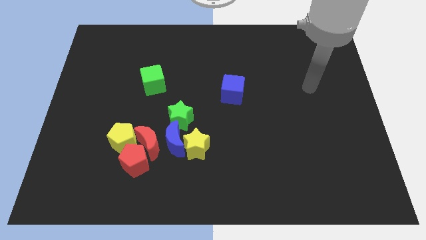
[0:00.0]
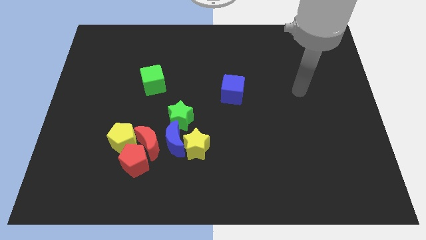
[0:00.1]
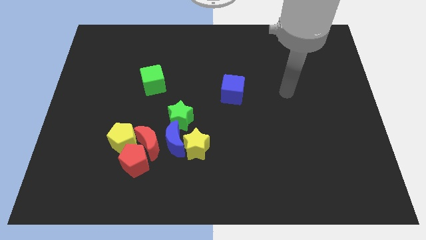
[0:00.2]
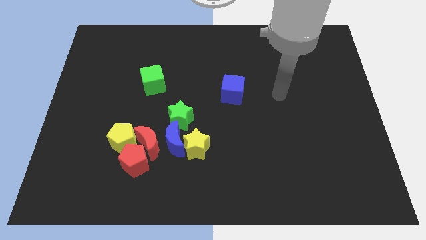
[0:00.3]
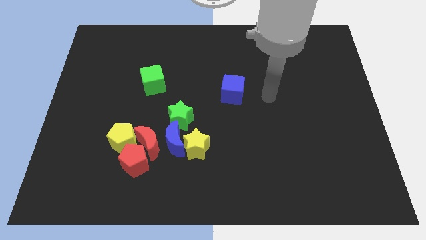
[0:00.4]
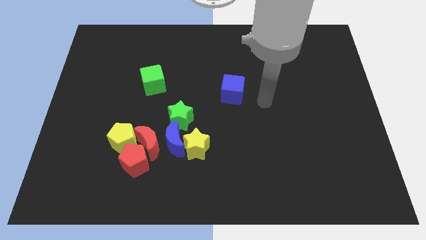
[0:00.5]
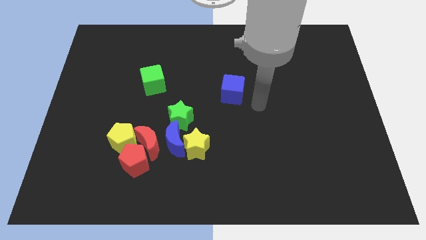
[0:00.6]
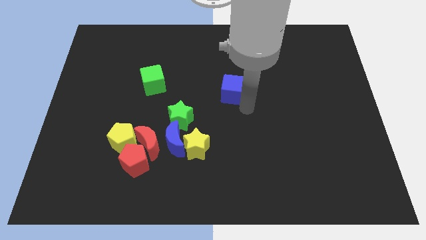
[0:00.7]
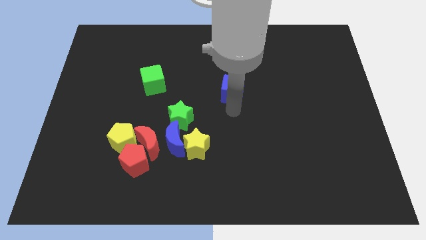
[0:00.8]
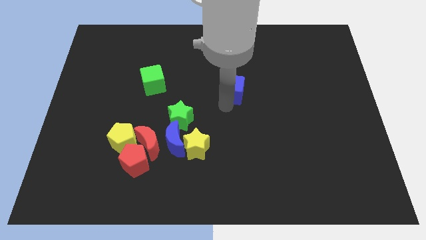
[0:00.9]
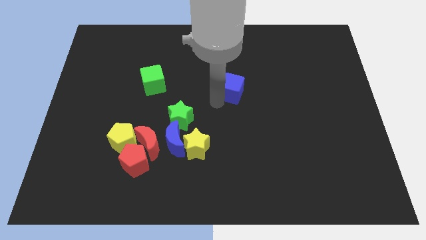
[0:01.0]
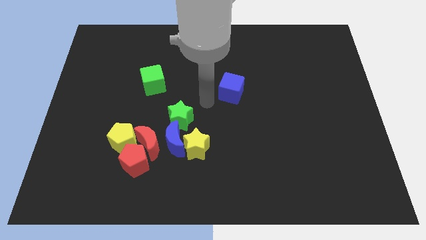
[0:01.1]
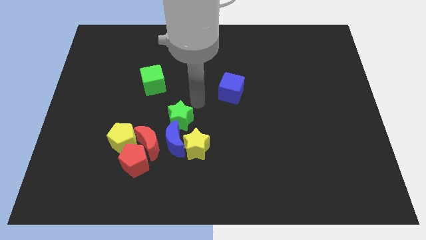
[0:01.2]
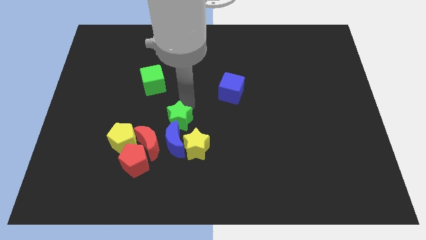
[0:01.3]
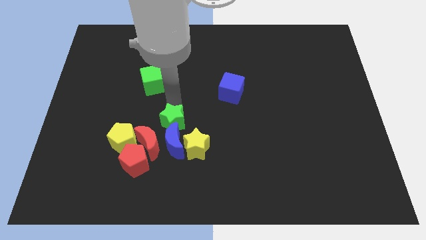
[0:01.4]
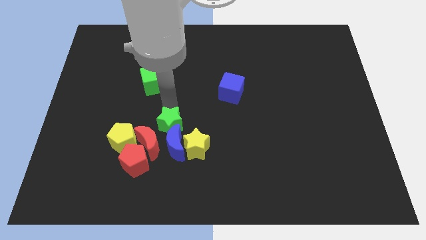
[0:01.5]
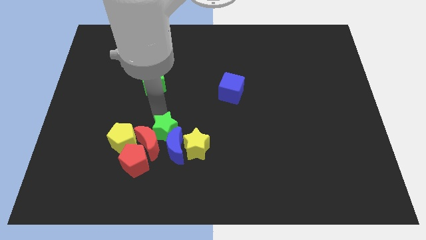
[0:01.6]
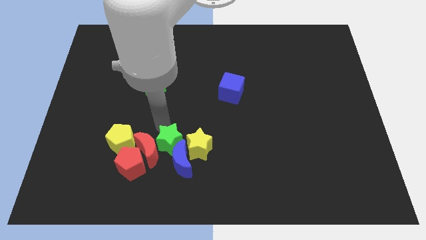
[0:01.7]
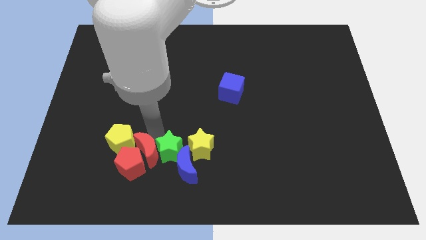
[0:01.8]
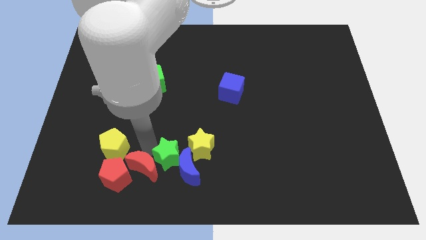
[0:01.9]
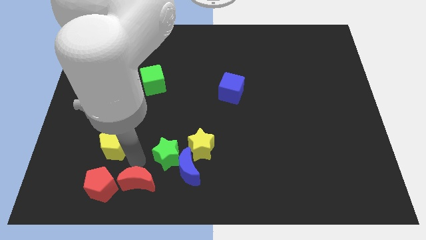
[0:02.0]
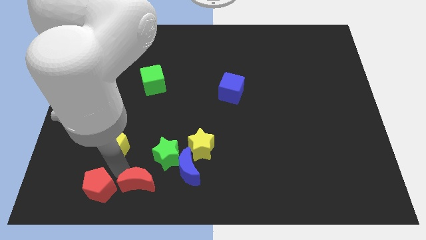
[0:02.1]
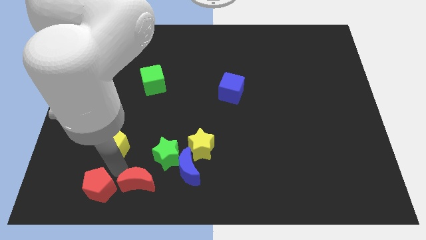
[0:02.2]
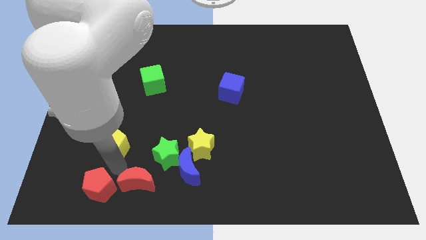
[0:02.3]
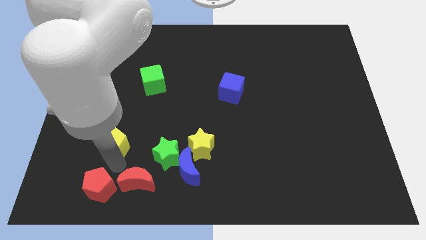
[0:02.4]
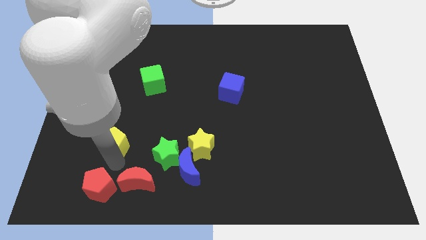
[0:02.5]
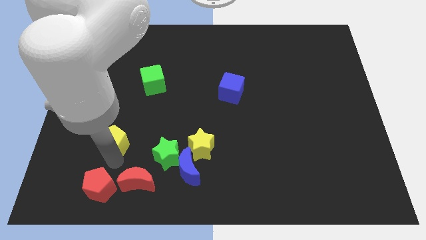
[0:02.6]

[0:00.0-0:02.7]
separate the yellow pentagon from the red moon and red pentagon

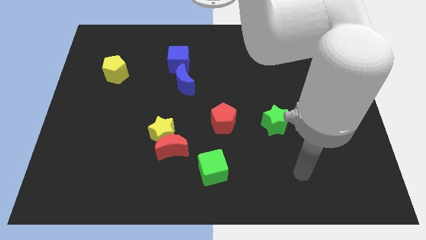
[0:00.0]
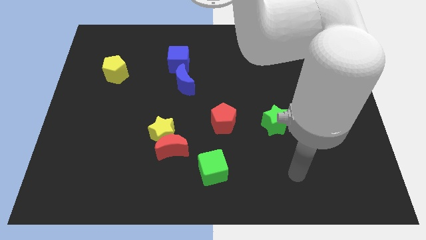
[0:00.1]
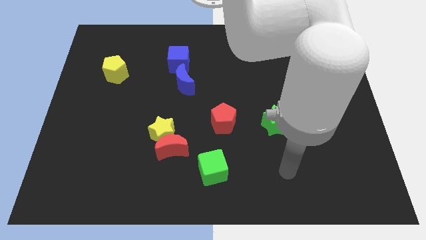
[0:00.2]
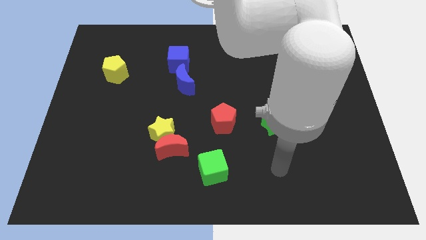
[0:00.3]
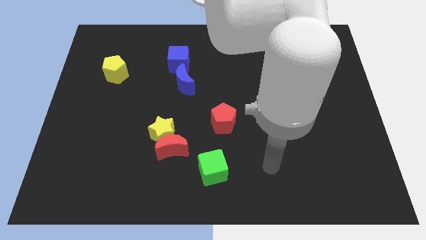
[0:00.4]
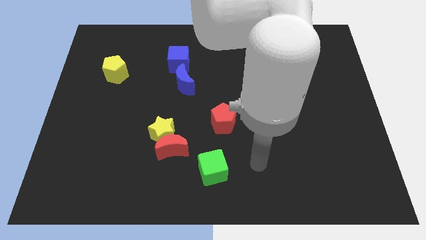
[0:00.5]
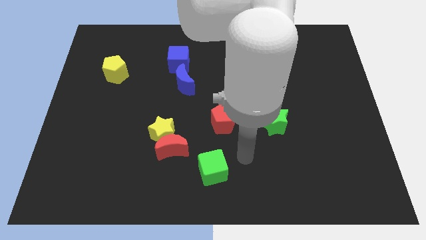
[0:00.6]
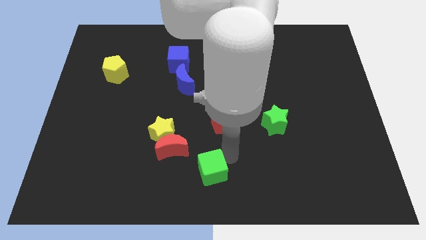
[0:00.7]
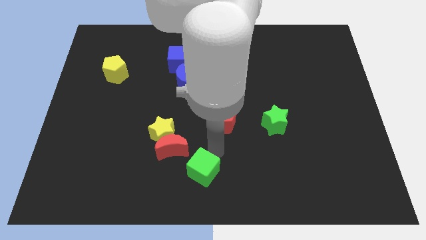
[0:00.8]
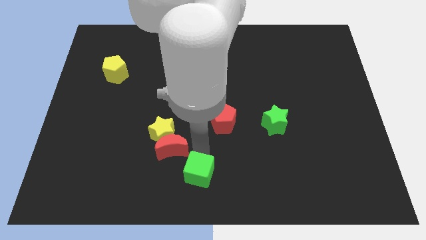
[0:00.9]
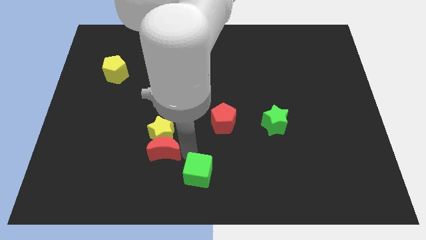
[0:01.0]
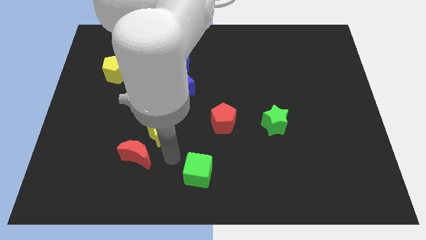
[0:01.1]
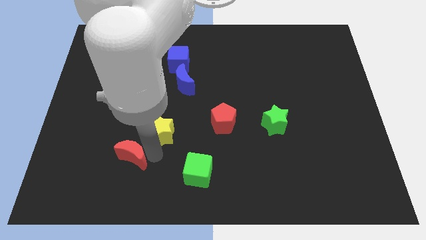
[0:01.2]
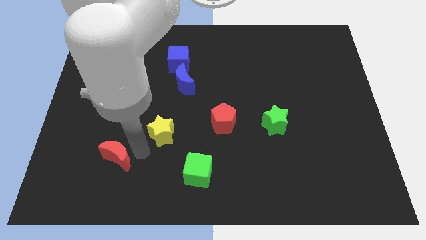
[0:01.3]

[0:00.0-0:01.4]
separate the yellow star from the red moon

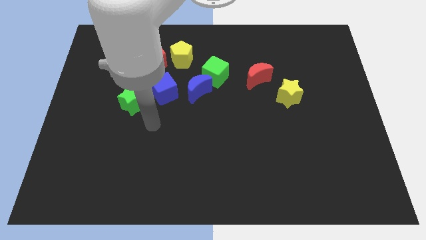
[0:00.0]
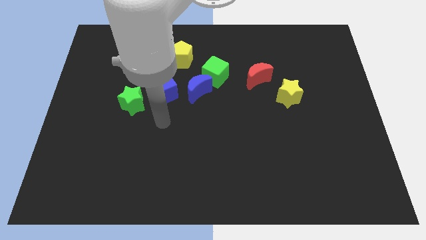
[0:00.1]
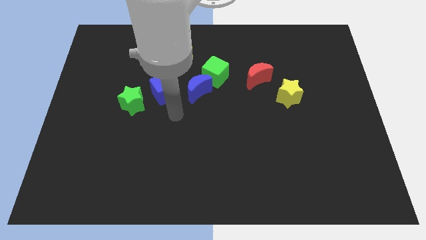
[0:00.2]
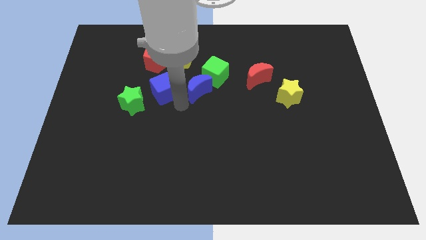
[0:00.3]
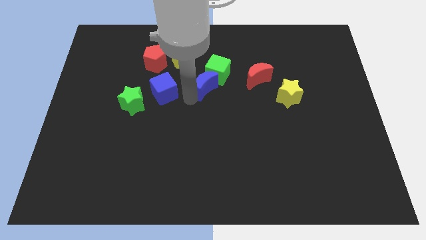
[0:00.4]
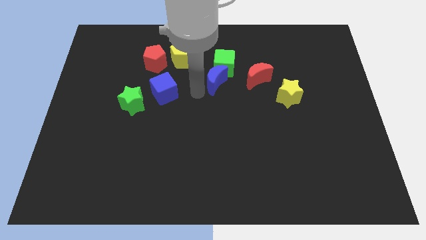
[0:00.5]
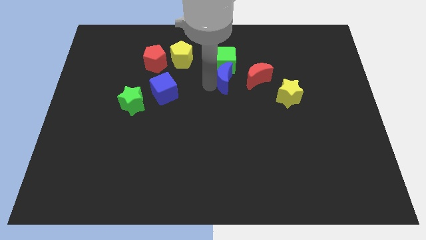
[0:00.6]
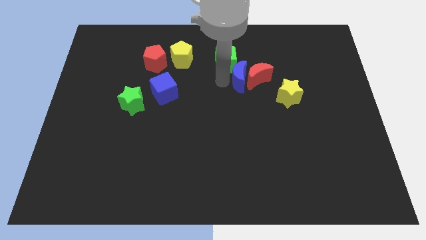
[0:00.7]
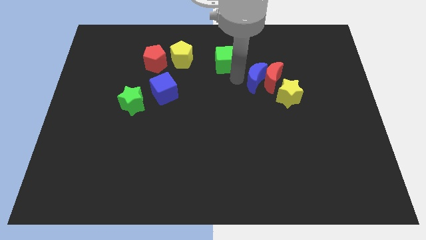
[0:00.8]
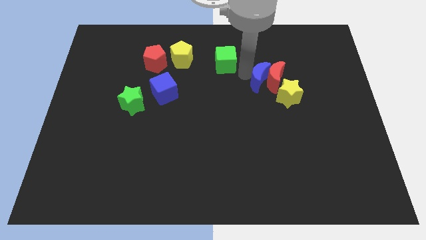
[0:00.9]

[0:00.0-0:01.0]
pull the green cube apart from the blue moon

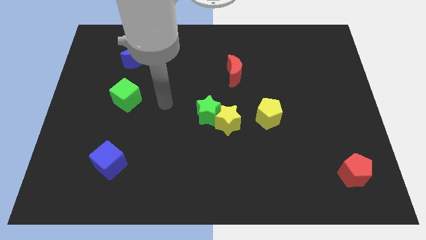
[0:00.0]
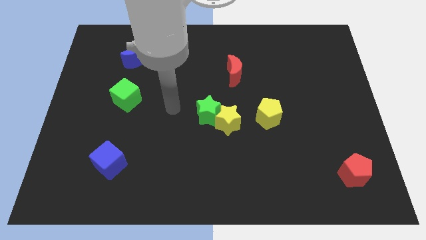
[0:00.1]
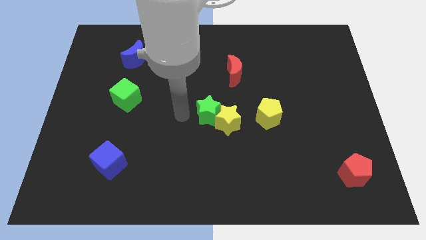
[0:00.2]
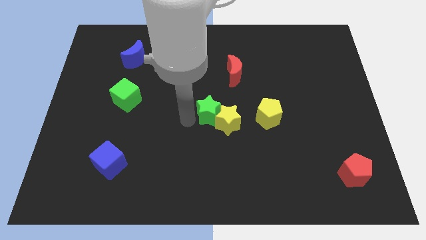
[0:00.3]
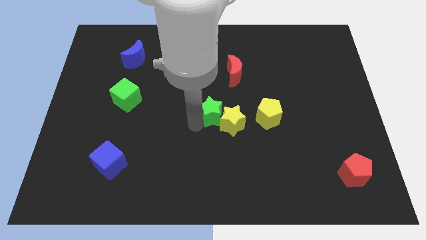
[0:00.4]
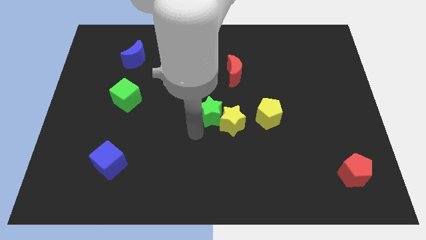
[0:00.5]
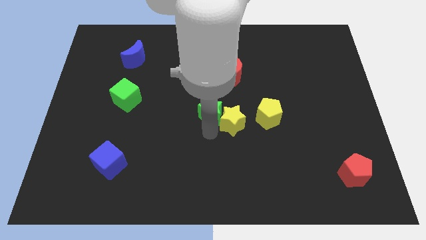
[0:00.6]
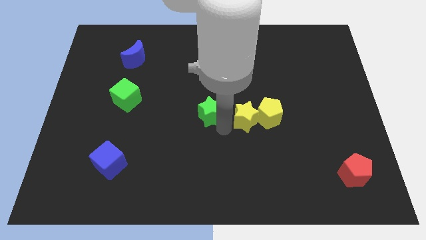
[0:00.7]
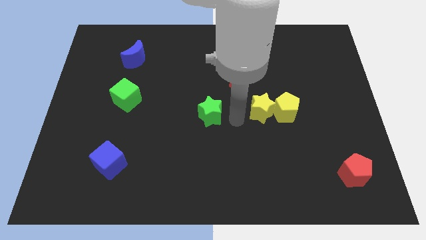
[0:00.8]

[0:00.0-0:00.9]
pull the green star apart from the yellow star

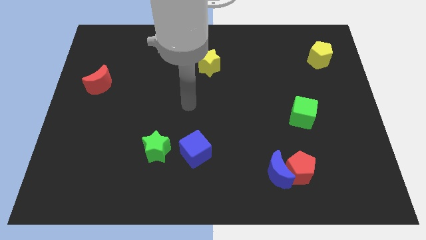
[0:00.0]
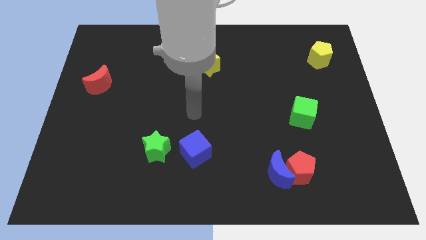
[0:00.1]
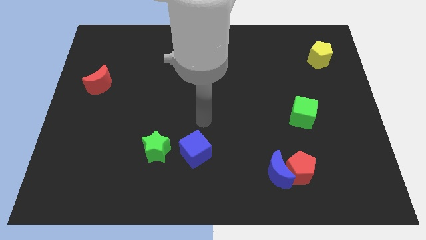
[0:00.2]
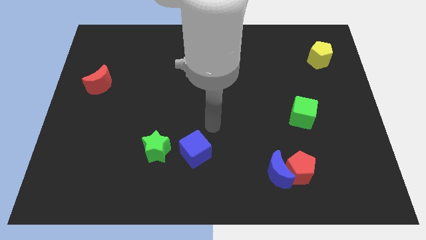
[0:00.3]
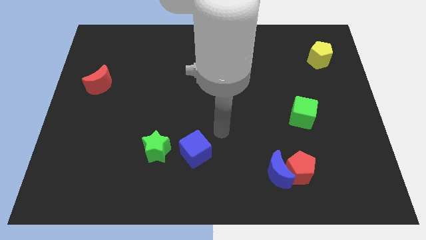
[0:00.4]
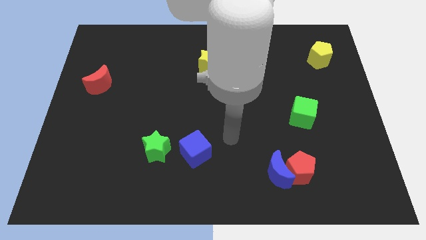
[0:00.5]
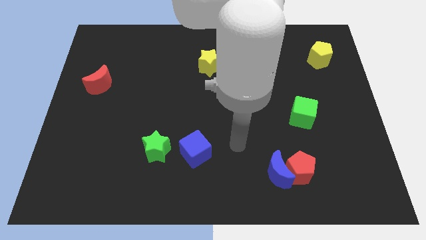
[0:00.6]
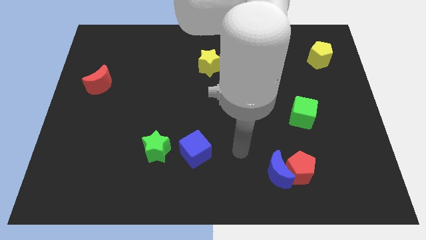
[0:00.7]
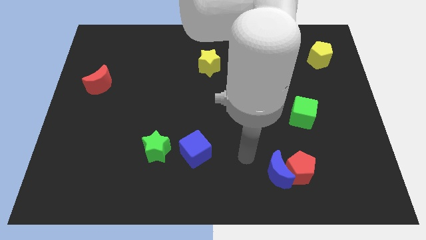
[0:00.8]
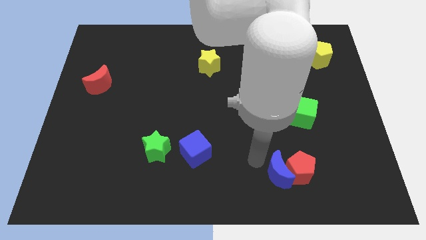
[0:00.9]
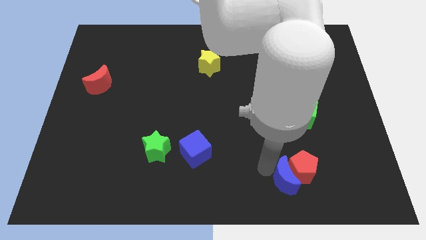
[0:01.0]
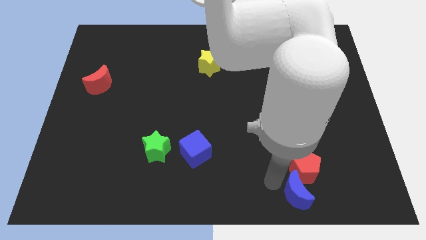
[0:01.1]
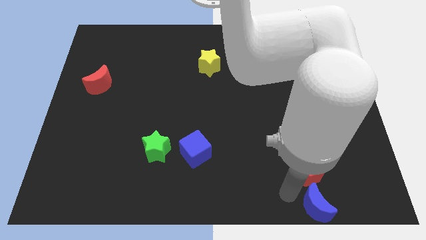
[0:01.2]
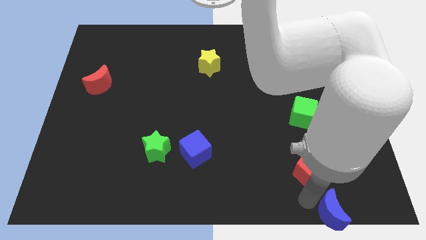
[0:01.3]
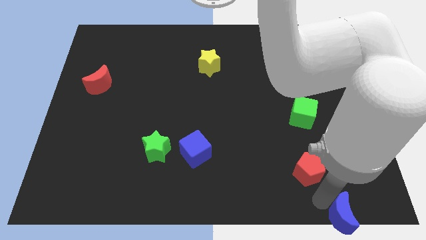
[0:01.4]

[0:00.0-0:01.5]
separate the red pentagon from the blue moon

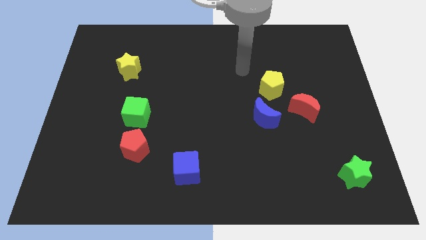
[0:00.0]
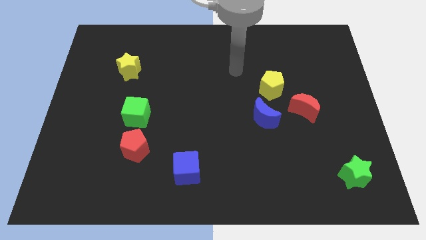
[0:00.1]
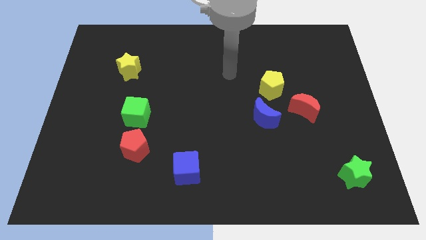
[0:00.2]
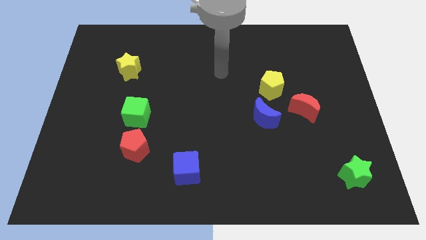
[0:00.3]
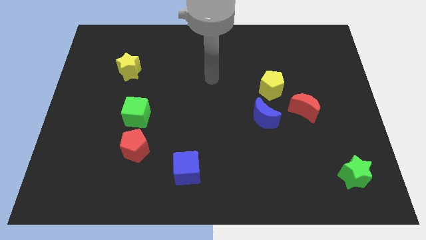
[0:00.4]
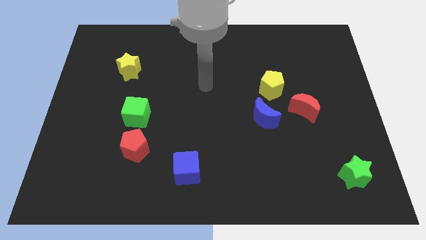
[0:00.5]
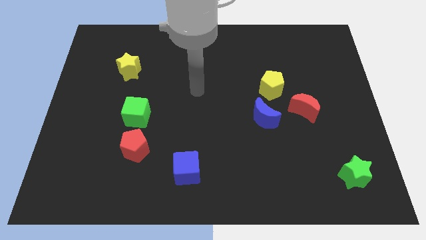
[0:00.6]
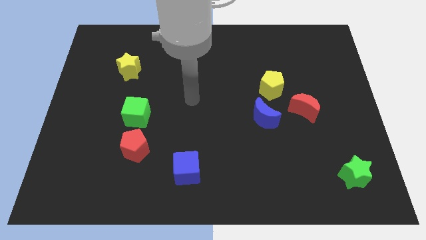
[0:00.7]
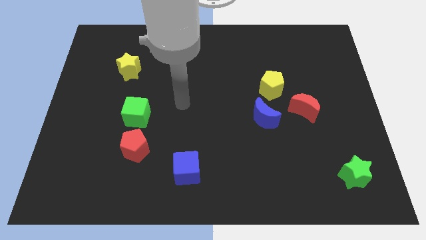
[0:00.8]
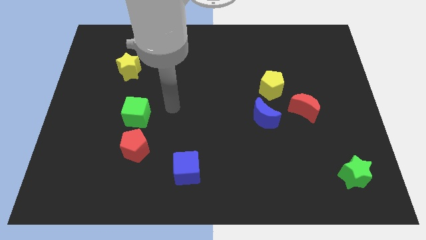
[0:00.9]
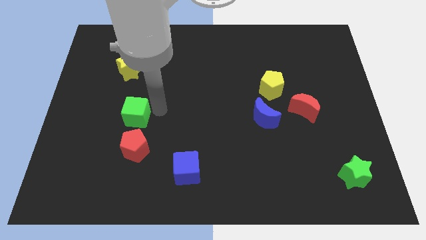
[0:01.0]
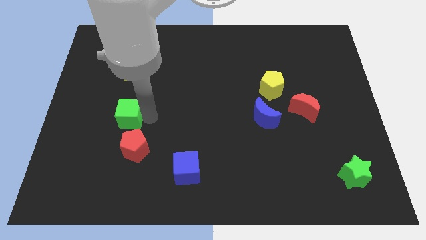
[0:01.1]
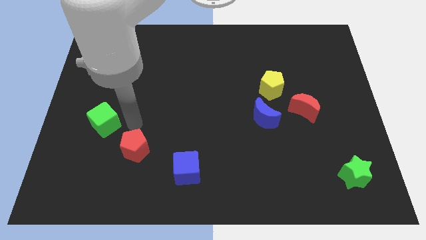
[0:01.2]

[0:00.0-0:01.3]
pull the red pentagon apart from the green cube

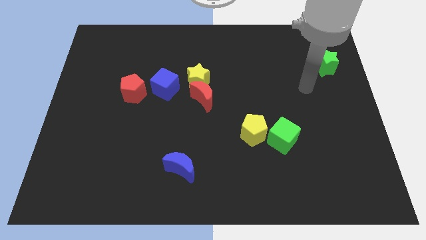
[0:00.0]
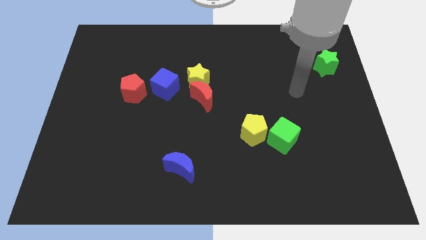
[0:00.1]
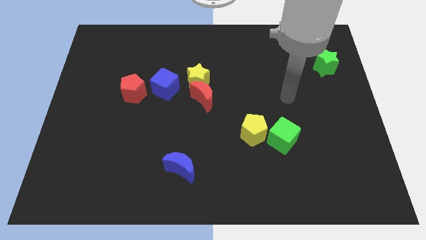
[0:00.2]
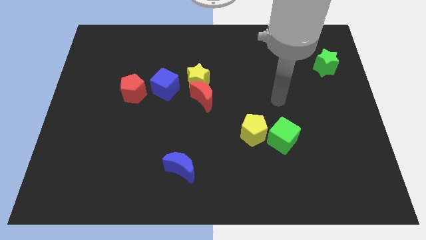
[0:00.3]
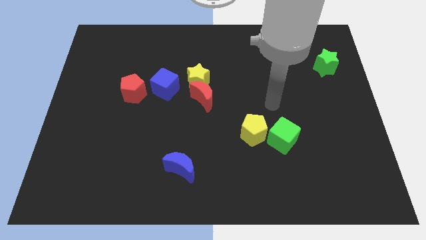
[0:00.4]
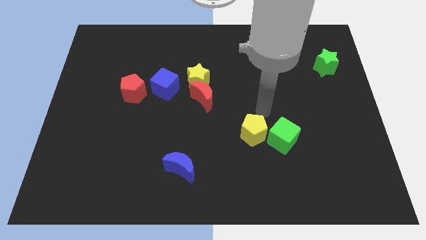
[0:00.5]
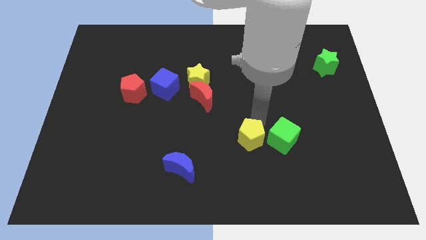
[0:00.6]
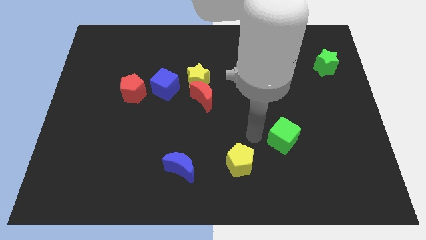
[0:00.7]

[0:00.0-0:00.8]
move the green cube away from the yellow pentagon
